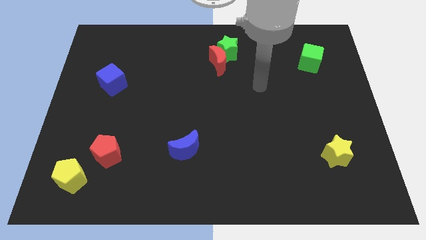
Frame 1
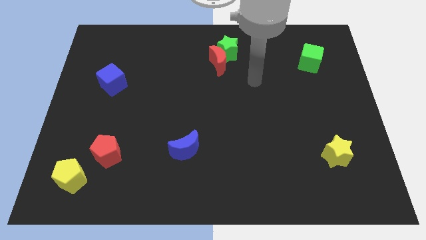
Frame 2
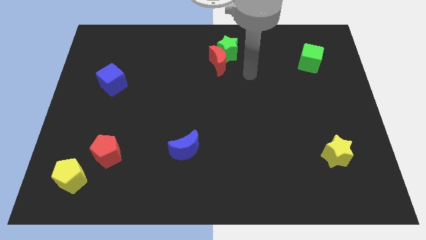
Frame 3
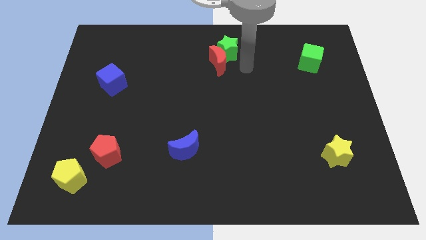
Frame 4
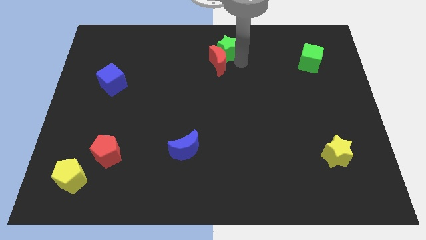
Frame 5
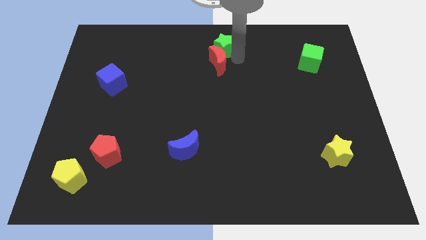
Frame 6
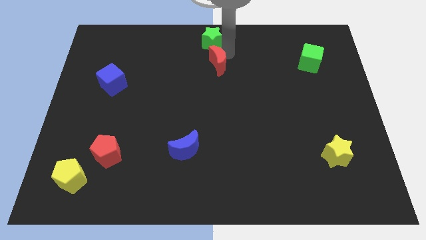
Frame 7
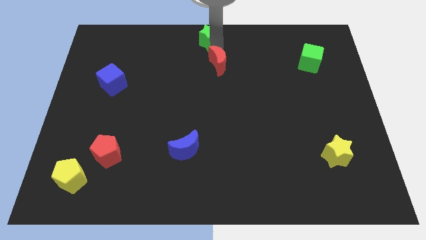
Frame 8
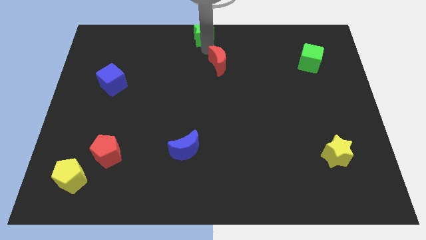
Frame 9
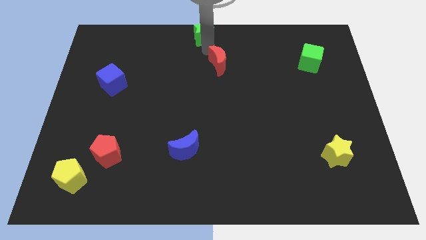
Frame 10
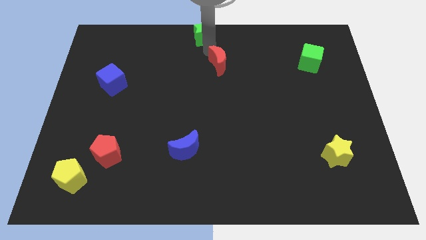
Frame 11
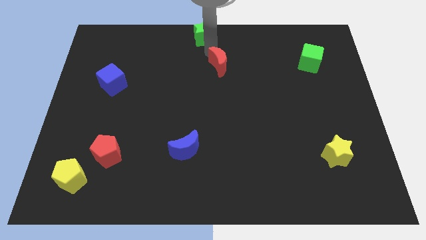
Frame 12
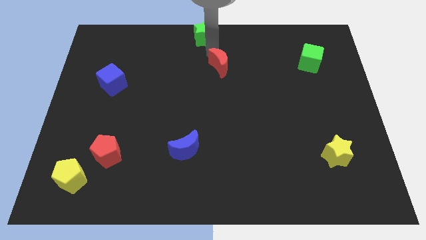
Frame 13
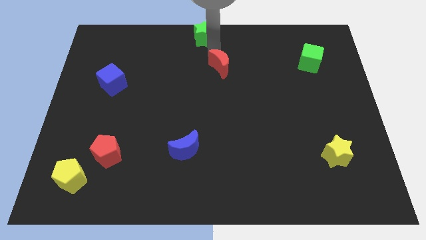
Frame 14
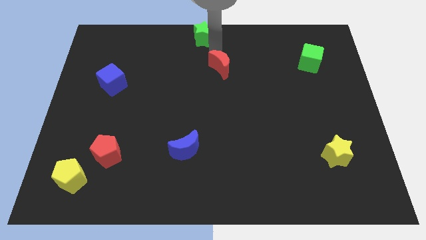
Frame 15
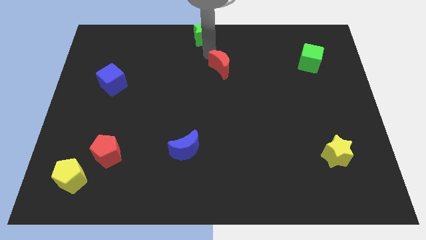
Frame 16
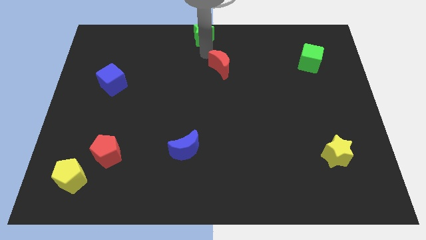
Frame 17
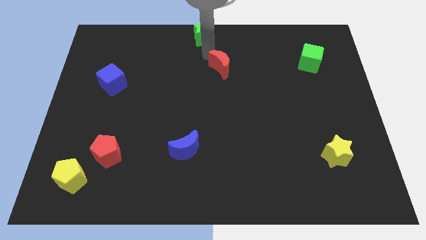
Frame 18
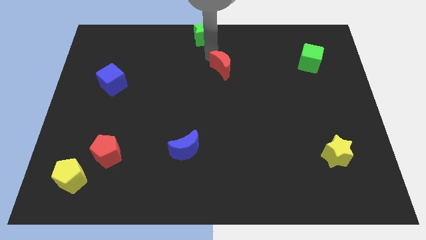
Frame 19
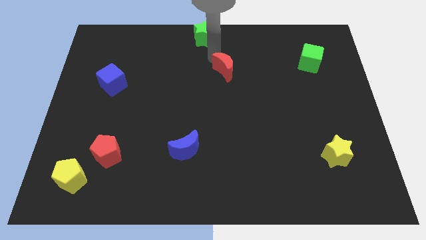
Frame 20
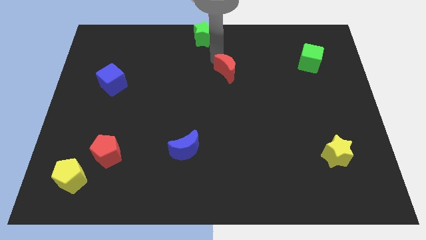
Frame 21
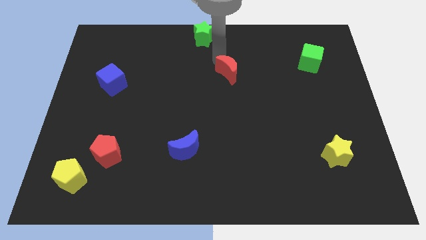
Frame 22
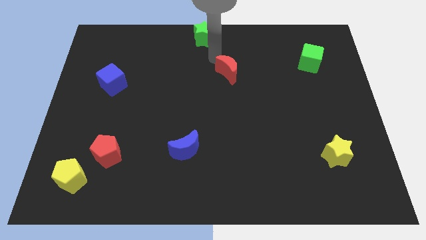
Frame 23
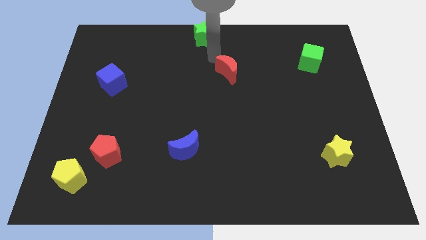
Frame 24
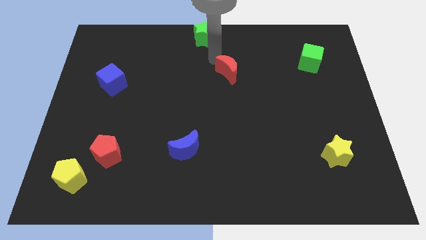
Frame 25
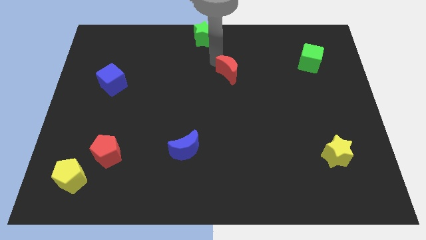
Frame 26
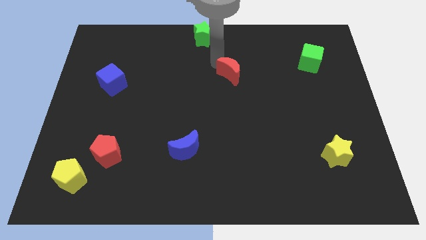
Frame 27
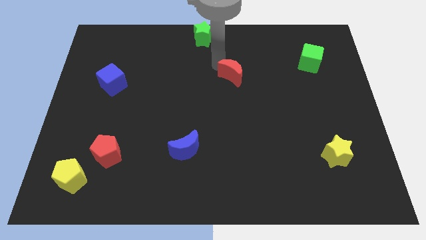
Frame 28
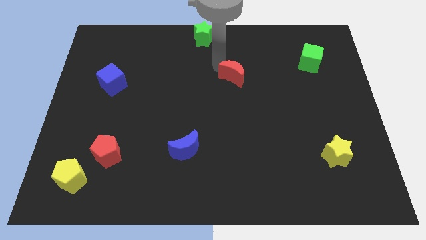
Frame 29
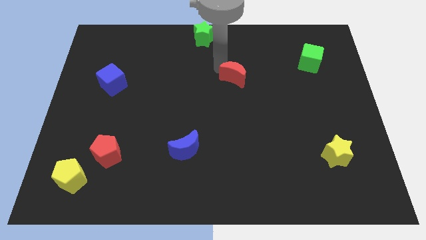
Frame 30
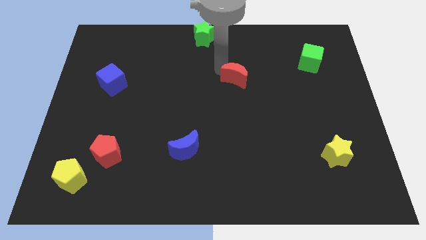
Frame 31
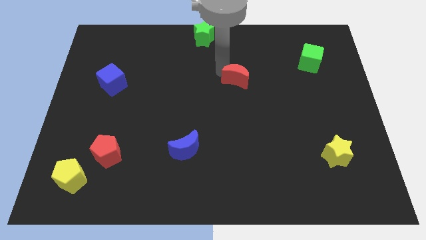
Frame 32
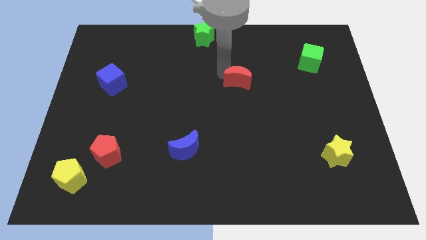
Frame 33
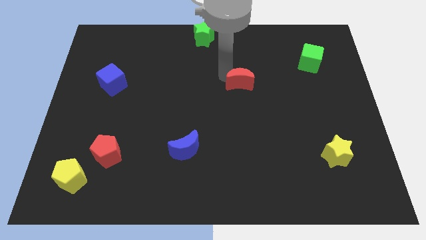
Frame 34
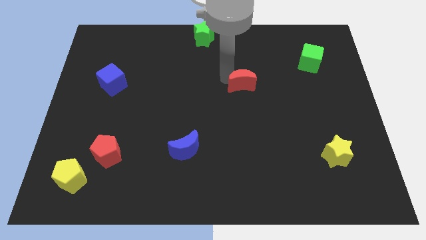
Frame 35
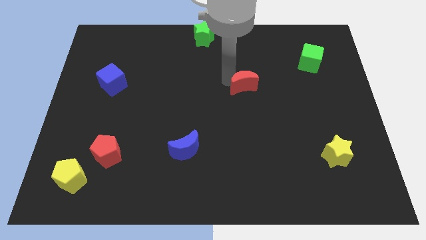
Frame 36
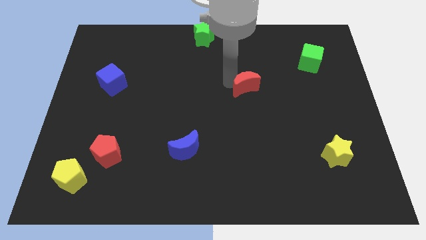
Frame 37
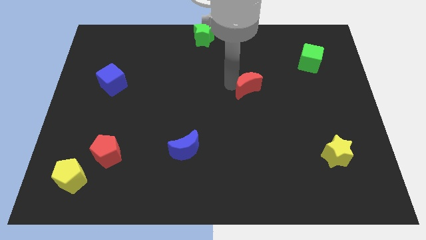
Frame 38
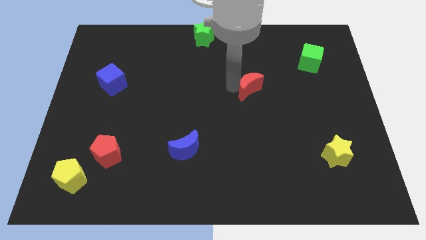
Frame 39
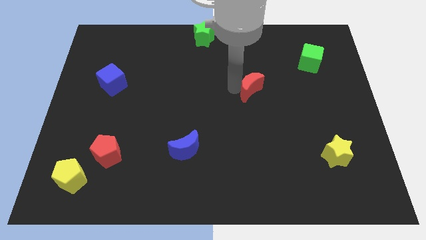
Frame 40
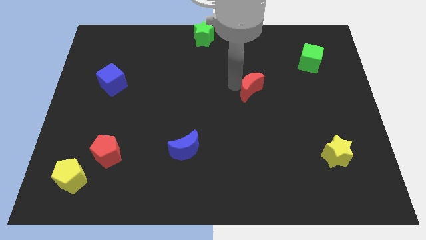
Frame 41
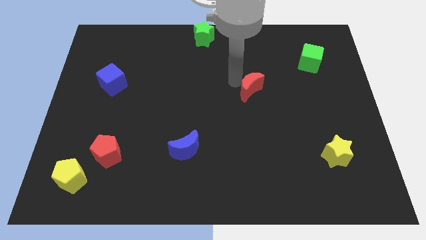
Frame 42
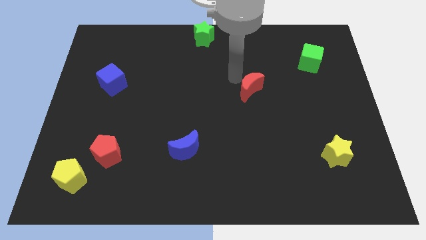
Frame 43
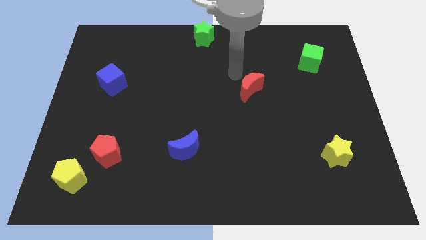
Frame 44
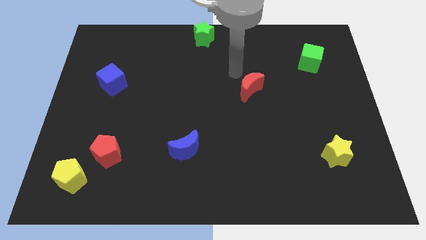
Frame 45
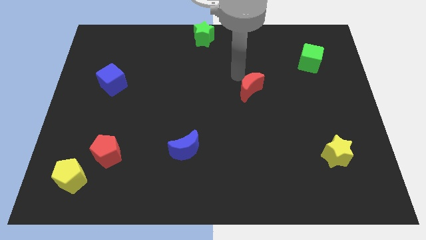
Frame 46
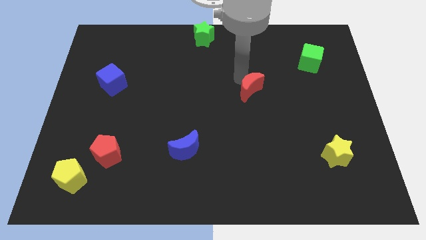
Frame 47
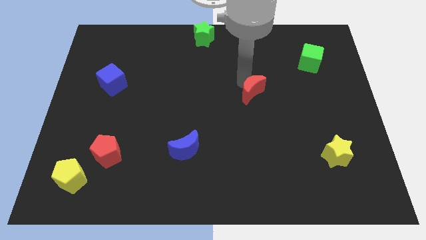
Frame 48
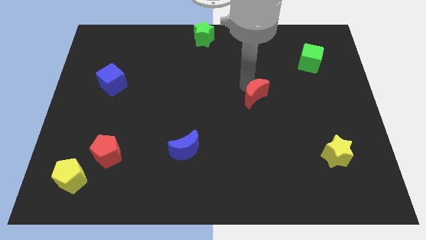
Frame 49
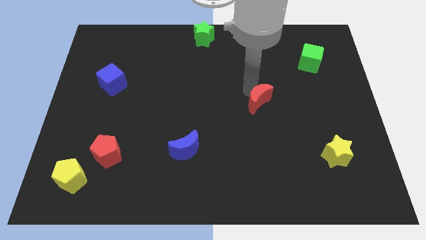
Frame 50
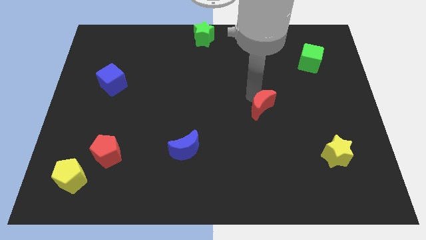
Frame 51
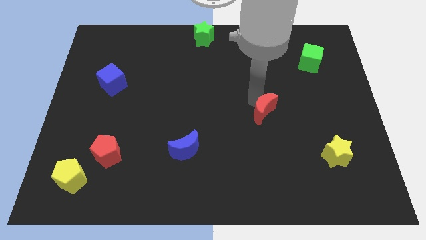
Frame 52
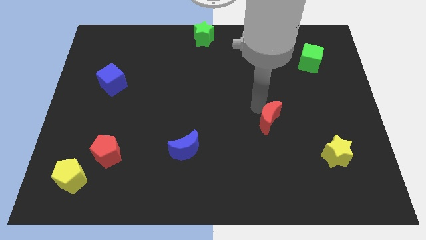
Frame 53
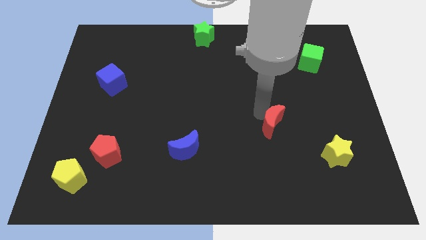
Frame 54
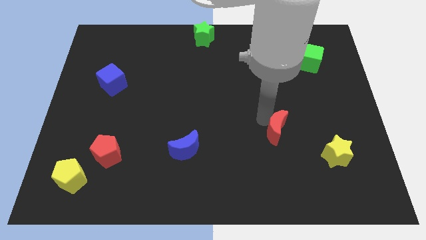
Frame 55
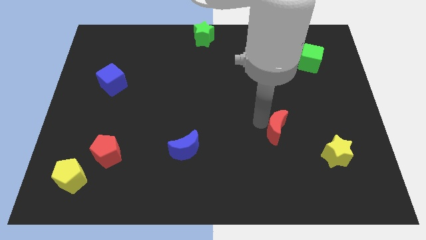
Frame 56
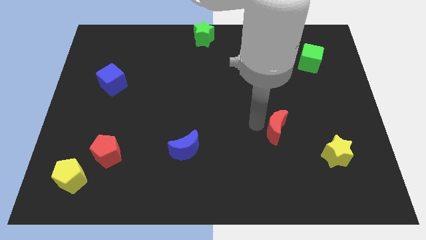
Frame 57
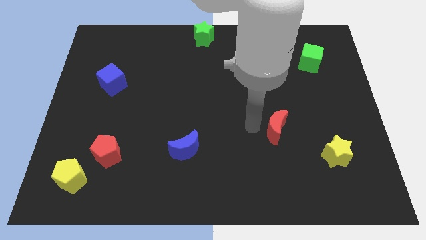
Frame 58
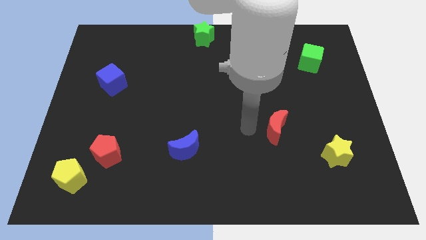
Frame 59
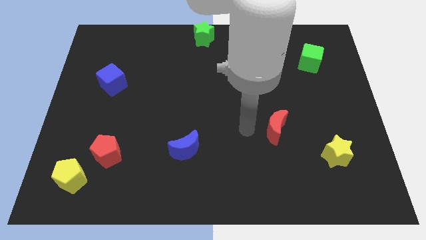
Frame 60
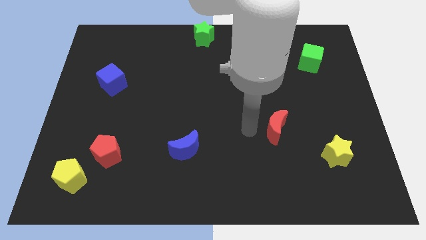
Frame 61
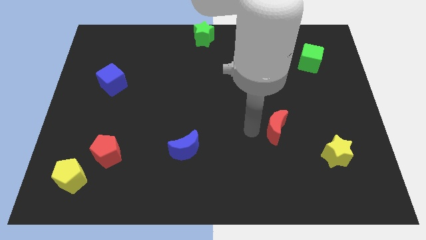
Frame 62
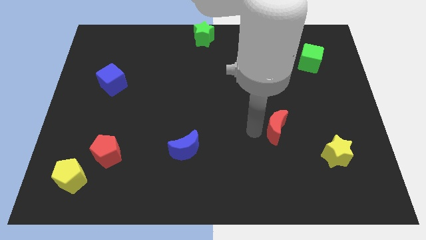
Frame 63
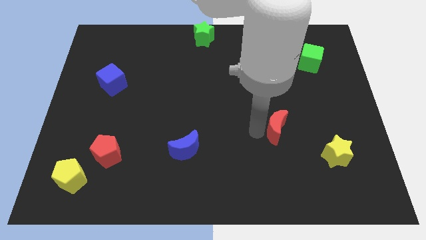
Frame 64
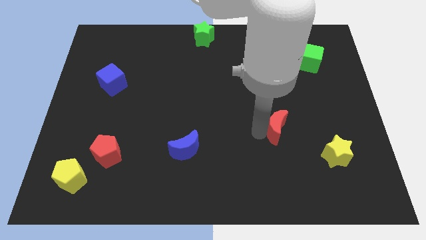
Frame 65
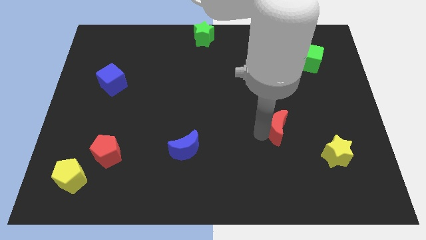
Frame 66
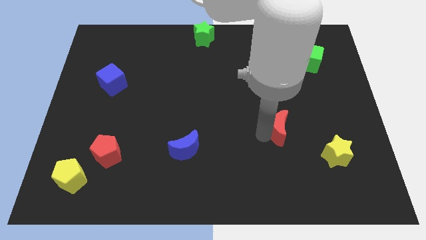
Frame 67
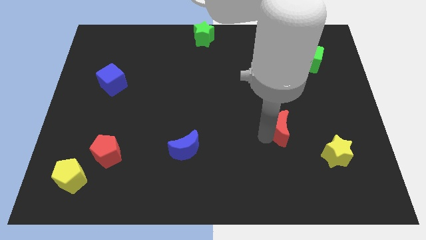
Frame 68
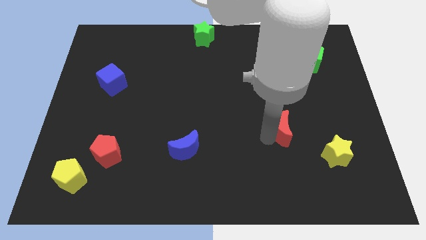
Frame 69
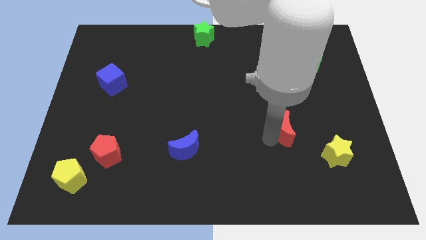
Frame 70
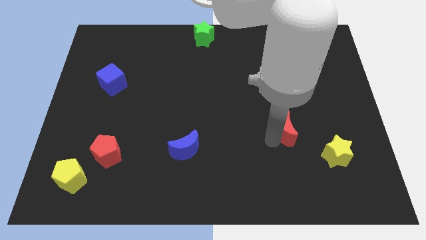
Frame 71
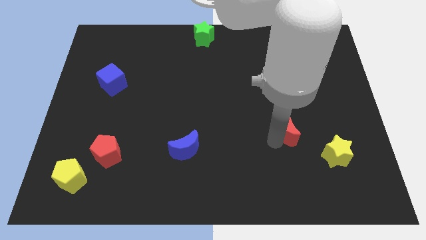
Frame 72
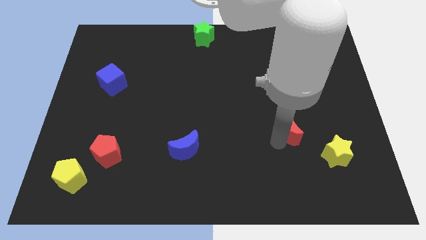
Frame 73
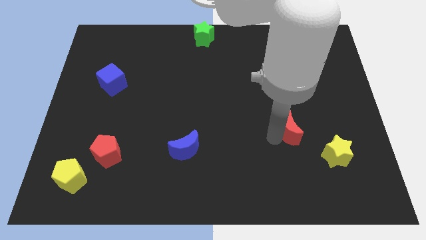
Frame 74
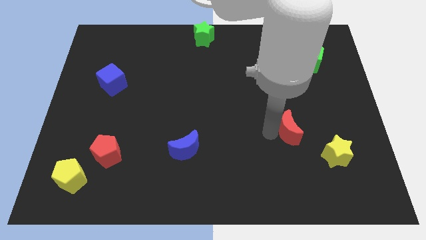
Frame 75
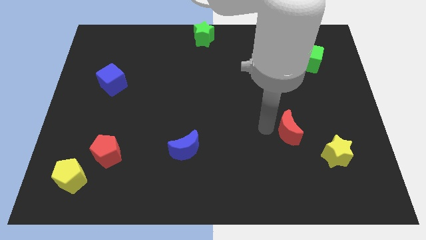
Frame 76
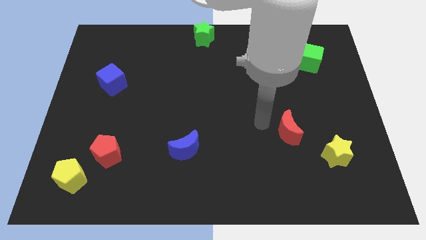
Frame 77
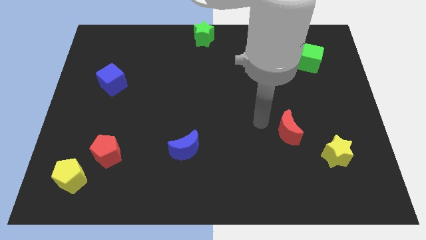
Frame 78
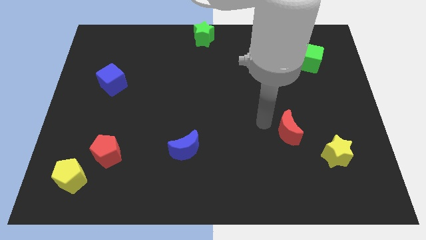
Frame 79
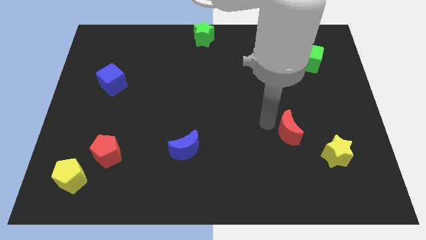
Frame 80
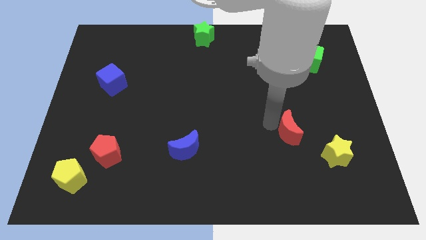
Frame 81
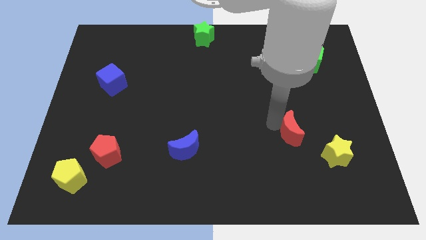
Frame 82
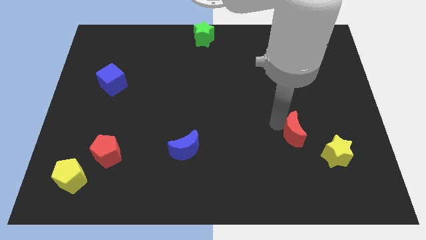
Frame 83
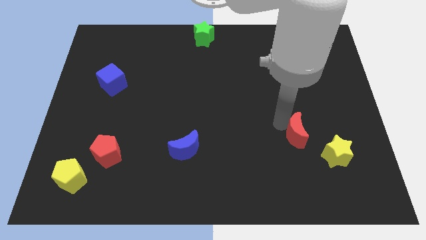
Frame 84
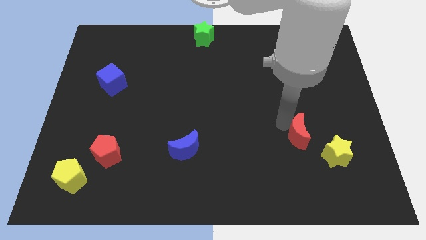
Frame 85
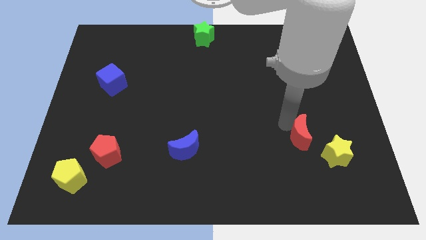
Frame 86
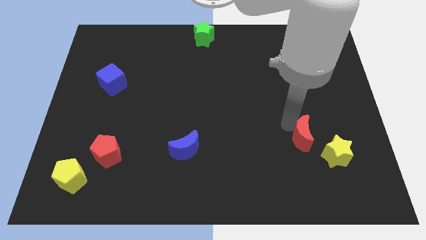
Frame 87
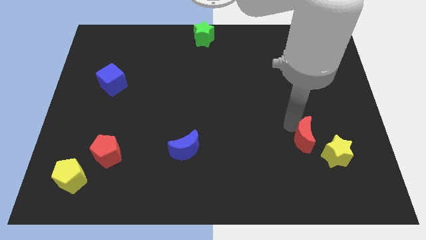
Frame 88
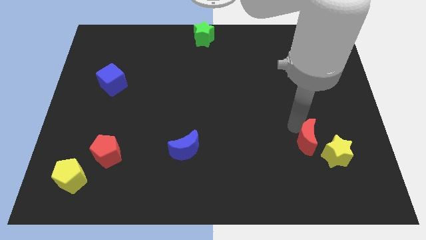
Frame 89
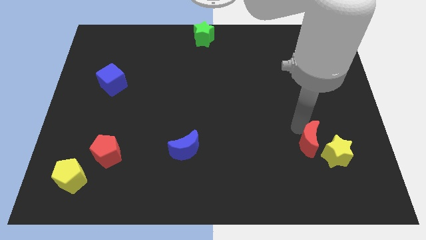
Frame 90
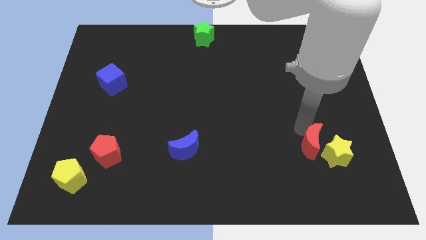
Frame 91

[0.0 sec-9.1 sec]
move the red moon close to the yellow star
